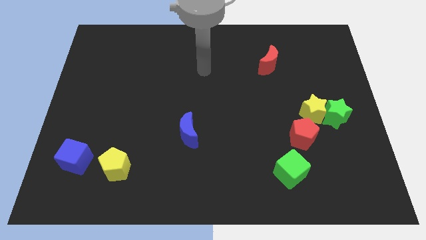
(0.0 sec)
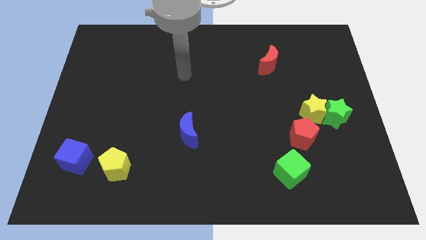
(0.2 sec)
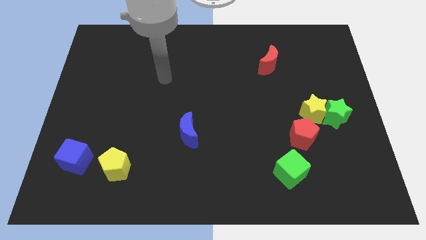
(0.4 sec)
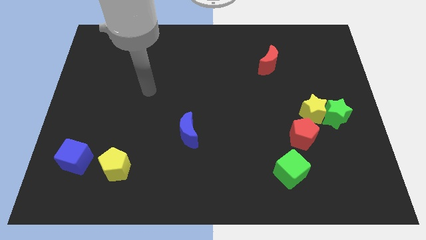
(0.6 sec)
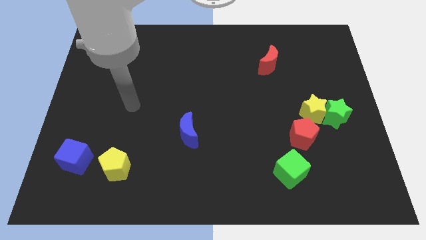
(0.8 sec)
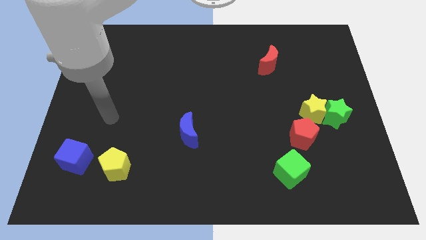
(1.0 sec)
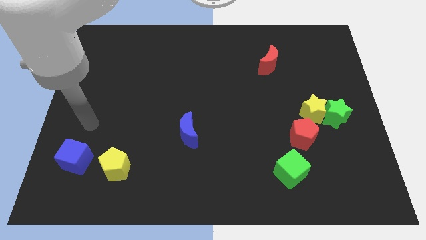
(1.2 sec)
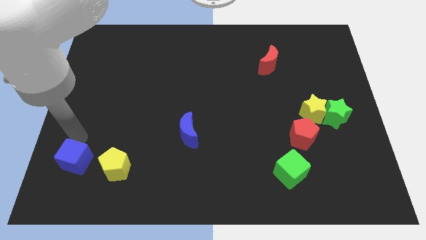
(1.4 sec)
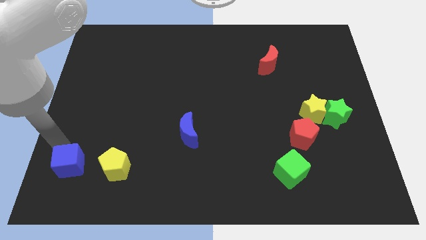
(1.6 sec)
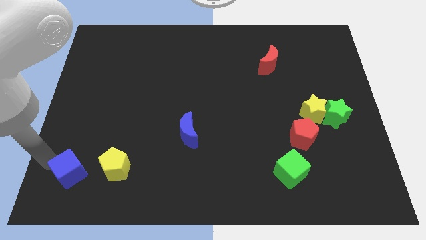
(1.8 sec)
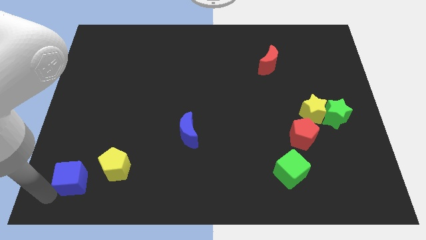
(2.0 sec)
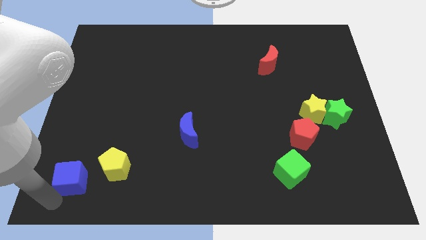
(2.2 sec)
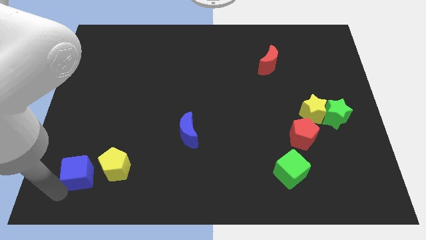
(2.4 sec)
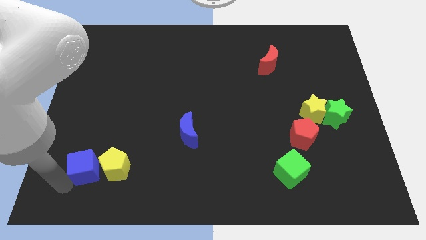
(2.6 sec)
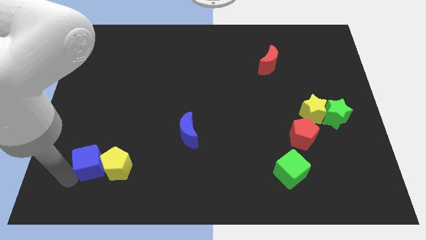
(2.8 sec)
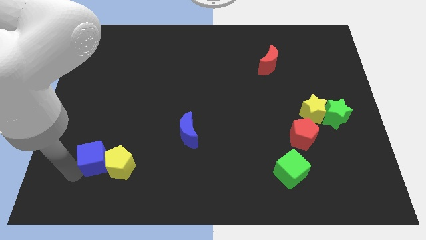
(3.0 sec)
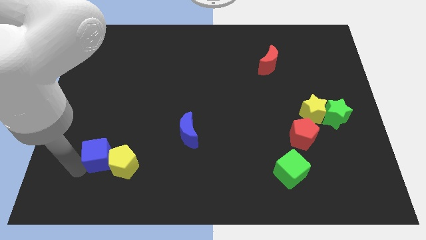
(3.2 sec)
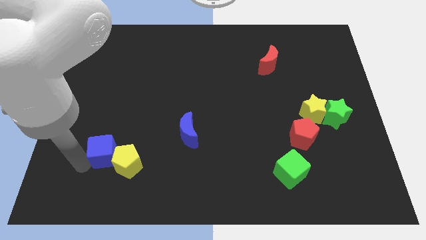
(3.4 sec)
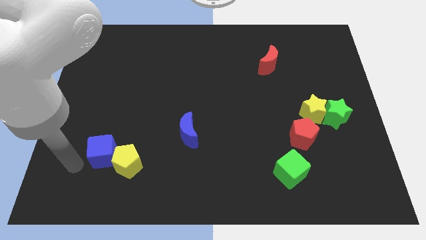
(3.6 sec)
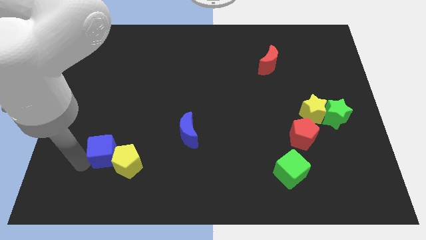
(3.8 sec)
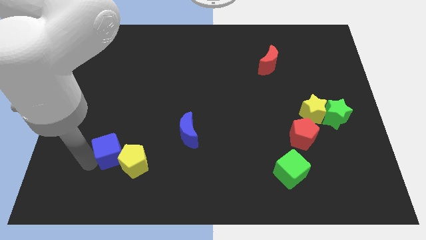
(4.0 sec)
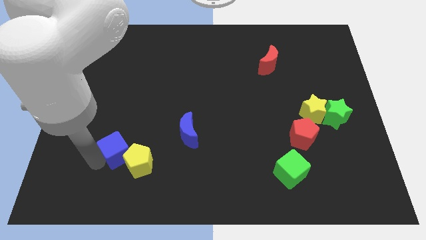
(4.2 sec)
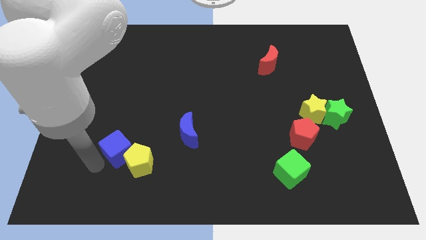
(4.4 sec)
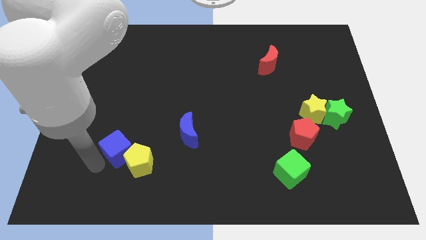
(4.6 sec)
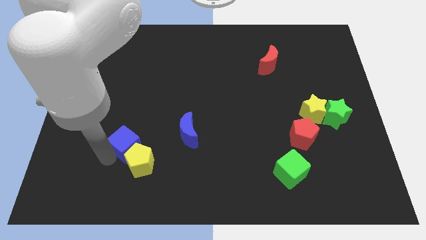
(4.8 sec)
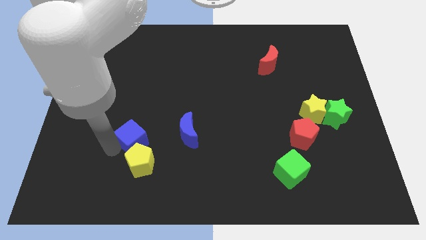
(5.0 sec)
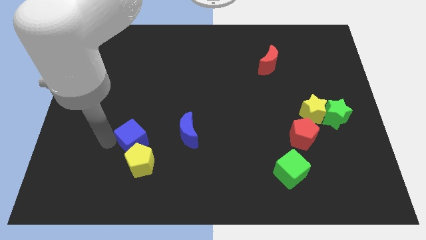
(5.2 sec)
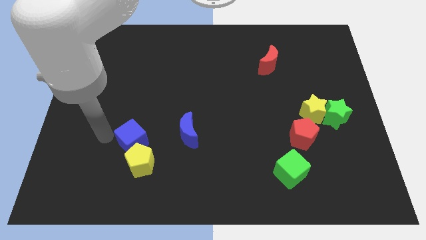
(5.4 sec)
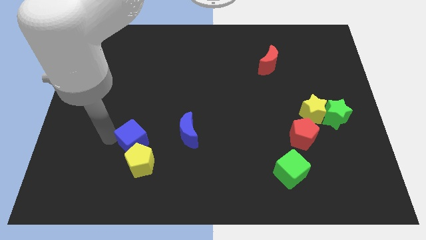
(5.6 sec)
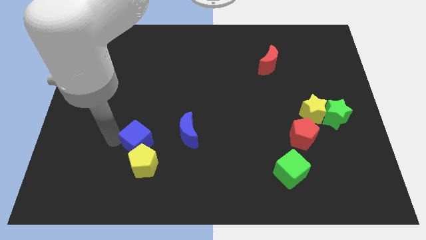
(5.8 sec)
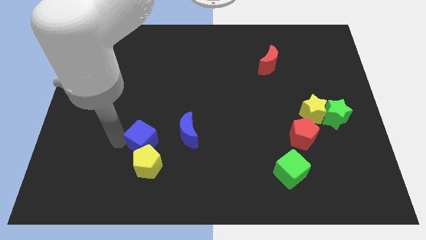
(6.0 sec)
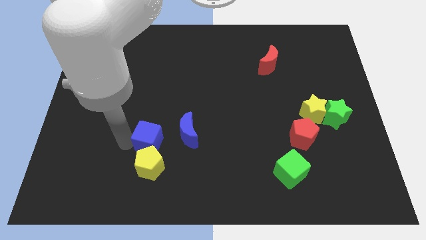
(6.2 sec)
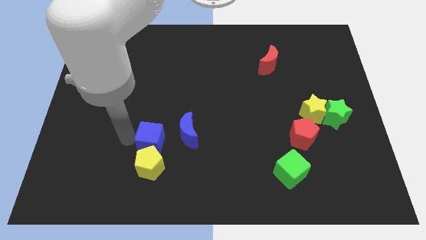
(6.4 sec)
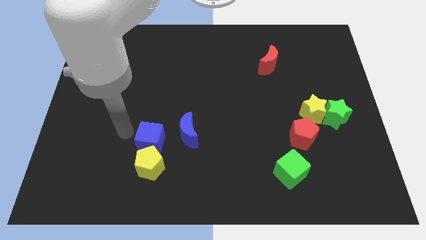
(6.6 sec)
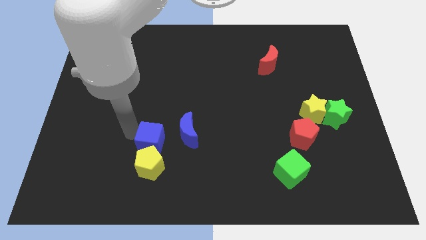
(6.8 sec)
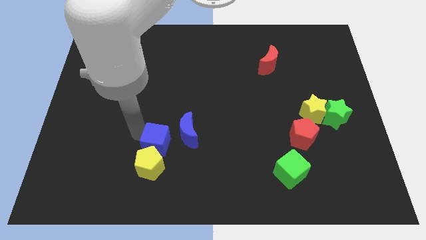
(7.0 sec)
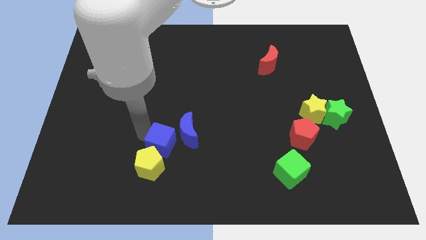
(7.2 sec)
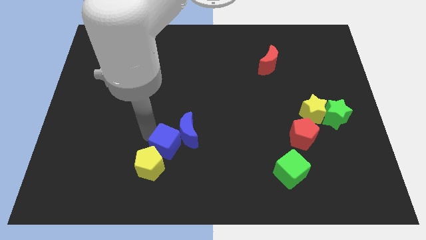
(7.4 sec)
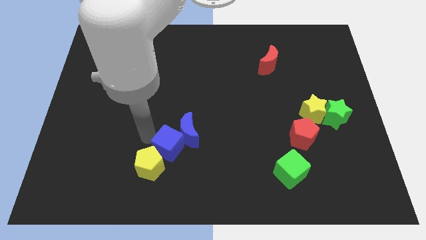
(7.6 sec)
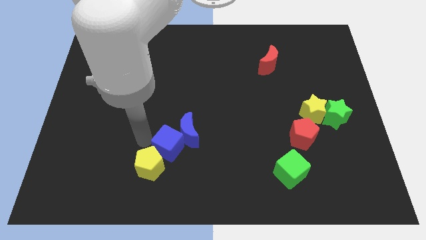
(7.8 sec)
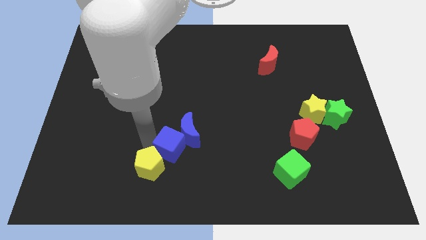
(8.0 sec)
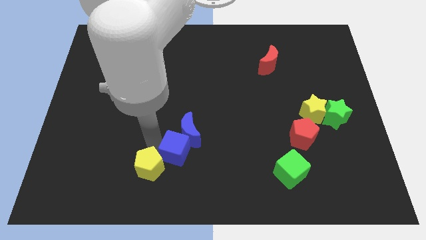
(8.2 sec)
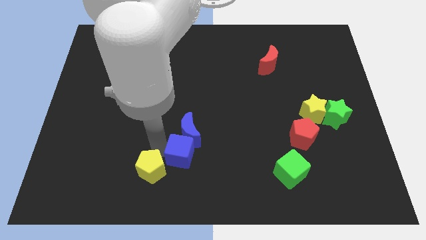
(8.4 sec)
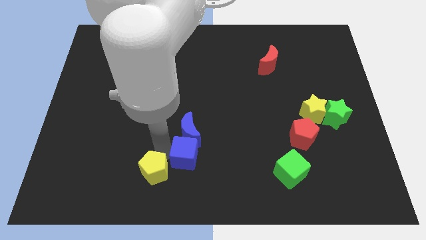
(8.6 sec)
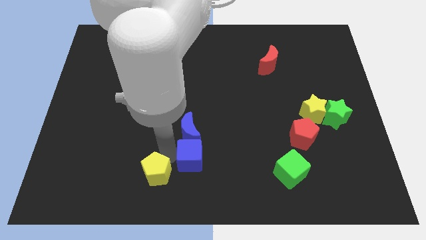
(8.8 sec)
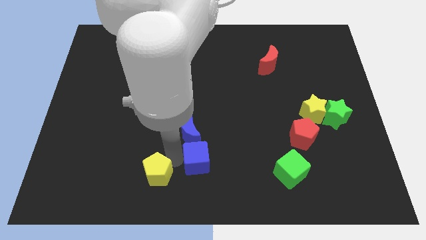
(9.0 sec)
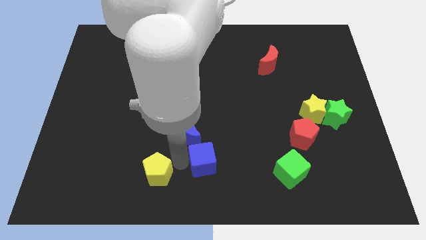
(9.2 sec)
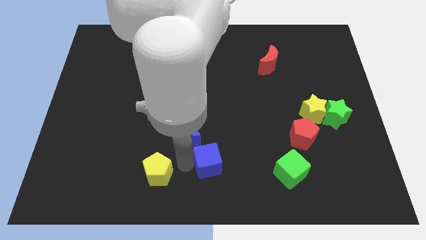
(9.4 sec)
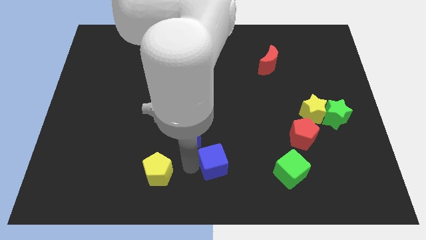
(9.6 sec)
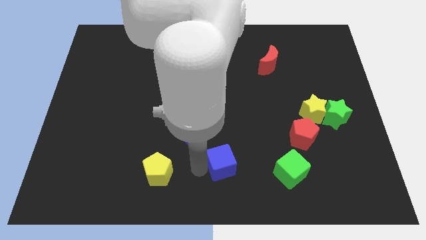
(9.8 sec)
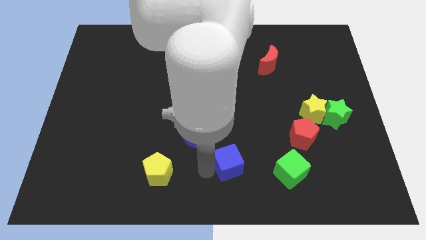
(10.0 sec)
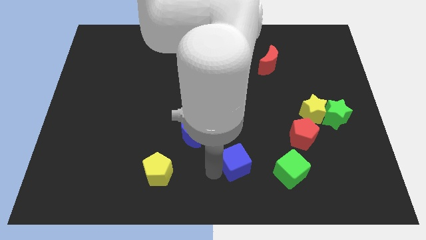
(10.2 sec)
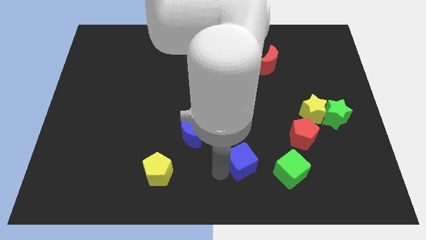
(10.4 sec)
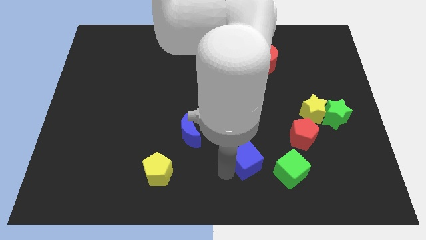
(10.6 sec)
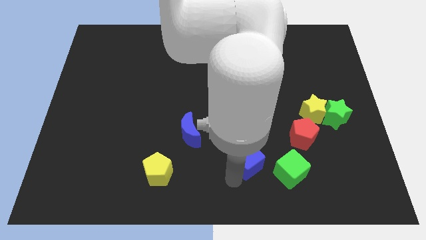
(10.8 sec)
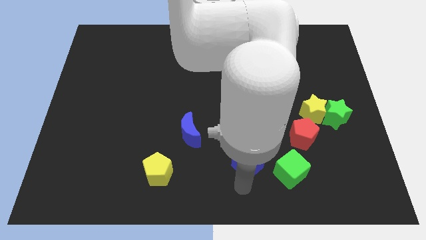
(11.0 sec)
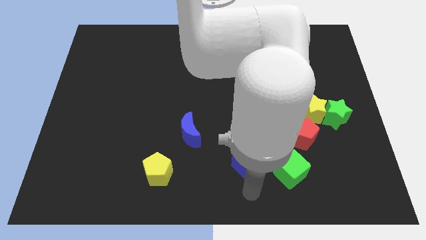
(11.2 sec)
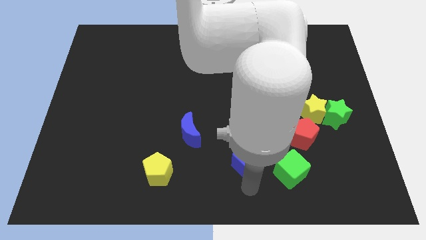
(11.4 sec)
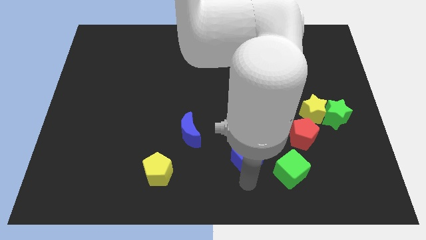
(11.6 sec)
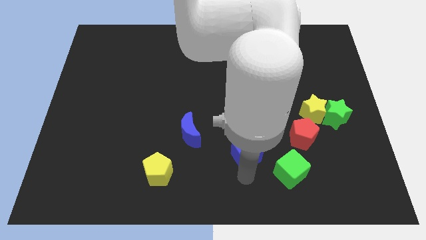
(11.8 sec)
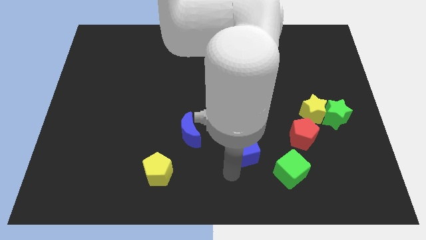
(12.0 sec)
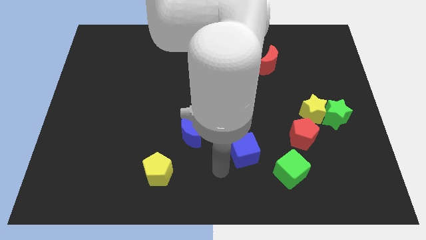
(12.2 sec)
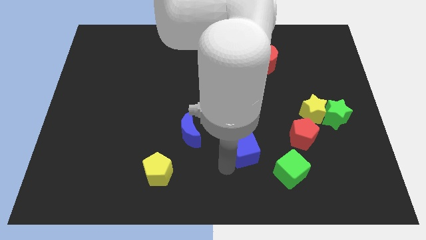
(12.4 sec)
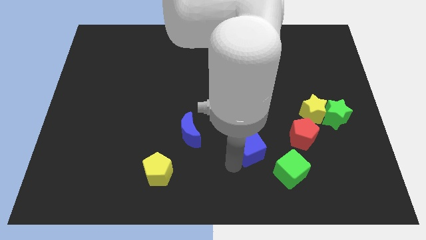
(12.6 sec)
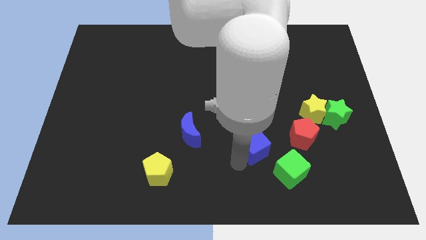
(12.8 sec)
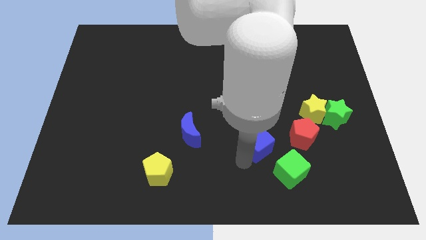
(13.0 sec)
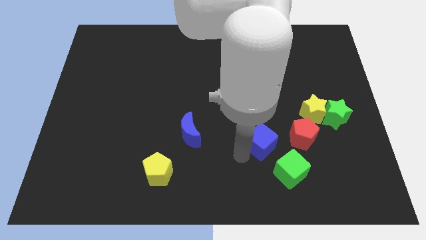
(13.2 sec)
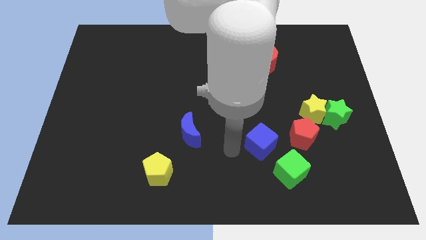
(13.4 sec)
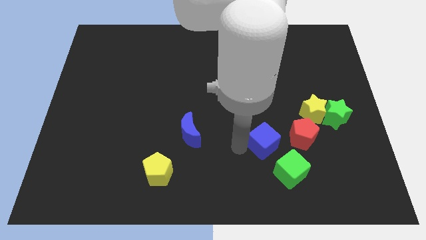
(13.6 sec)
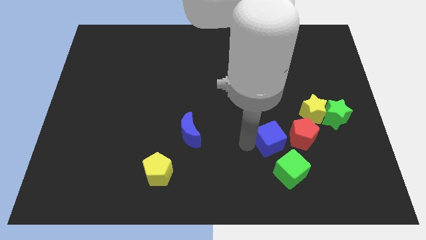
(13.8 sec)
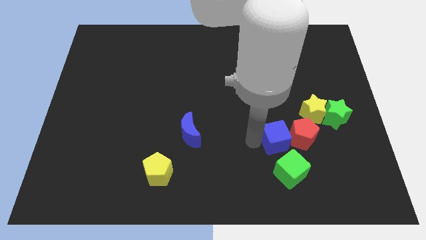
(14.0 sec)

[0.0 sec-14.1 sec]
put the blue cube towards the red pentagon
